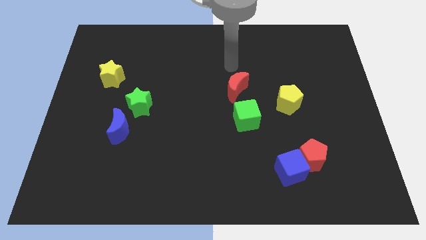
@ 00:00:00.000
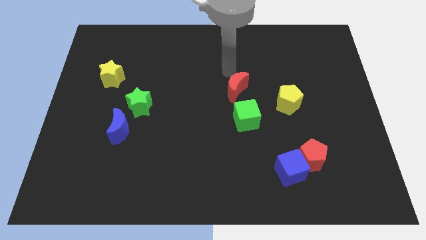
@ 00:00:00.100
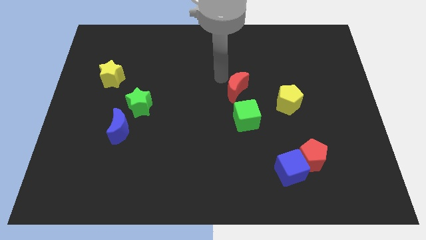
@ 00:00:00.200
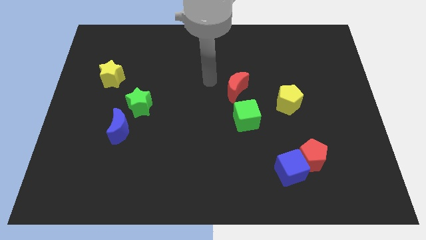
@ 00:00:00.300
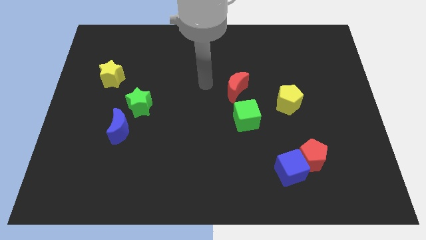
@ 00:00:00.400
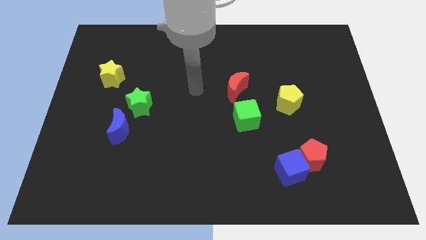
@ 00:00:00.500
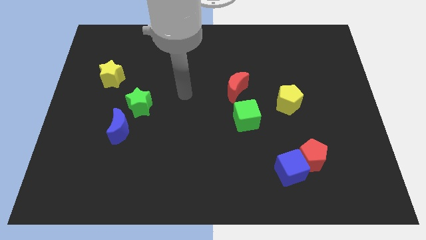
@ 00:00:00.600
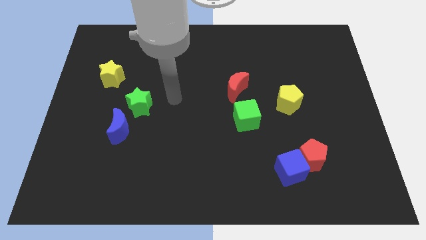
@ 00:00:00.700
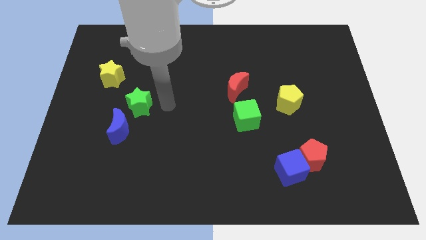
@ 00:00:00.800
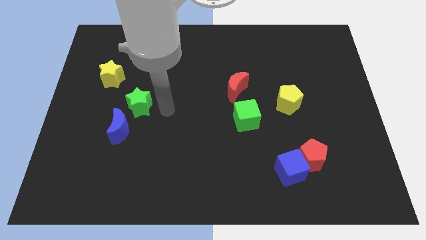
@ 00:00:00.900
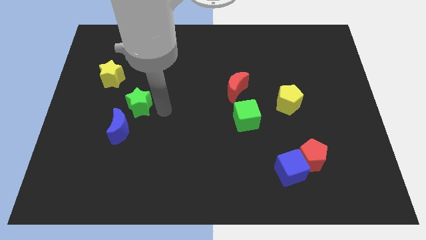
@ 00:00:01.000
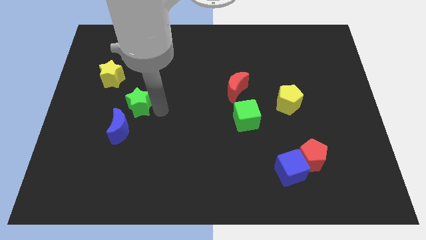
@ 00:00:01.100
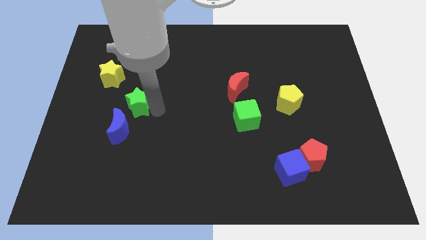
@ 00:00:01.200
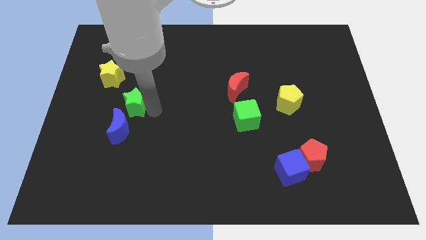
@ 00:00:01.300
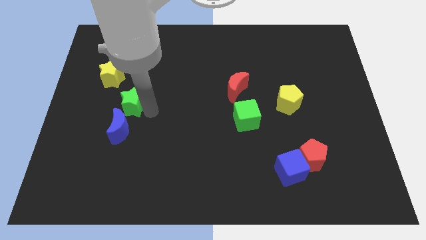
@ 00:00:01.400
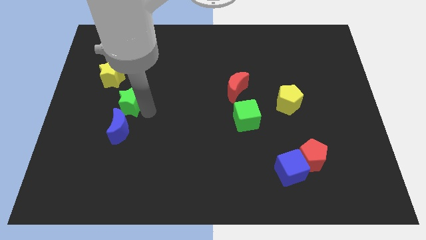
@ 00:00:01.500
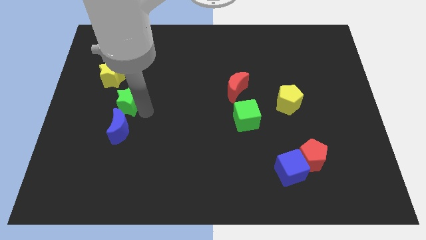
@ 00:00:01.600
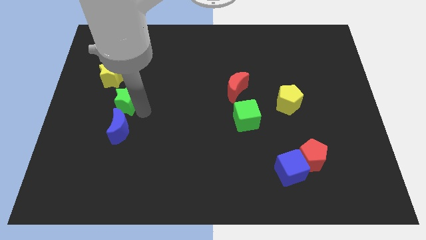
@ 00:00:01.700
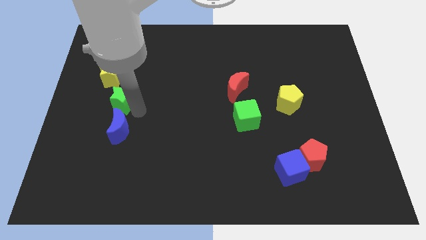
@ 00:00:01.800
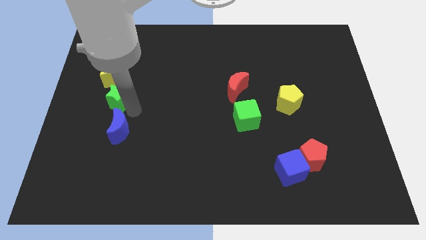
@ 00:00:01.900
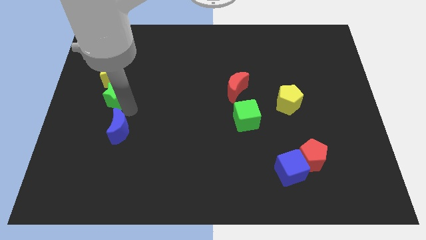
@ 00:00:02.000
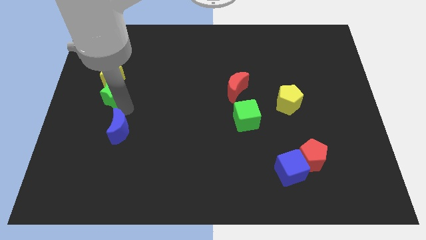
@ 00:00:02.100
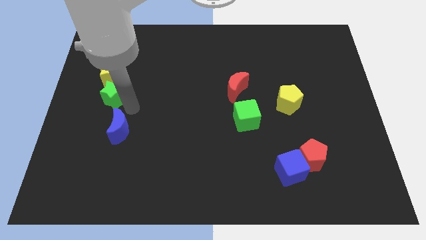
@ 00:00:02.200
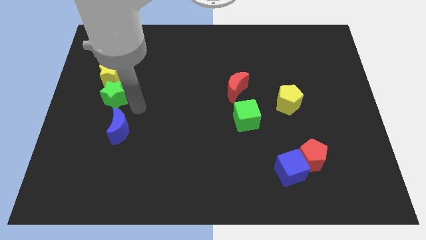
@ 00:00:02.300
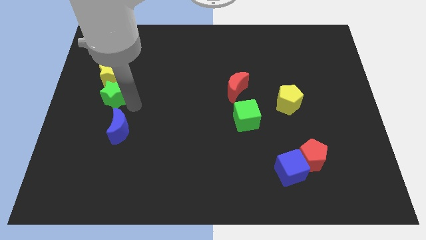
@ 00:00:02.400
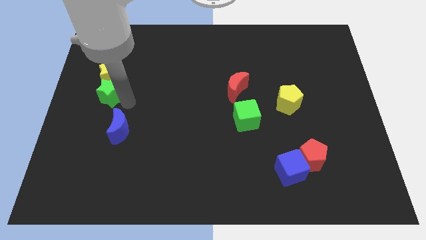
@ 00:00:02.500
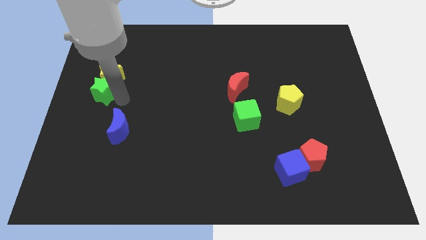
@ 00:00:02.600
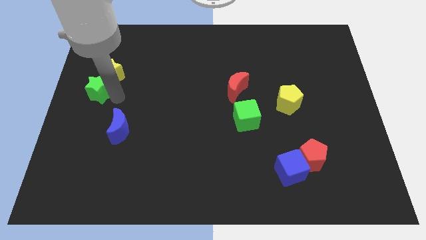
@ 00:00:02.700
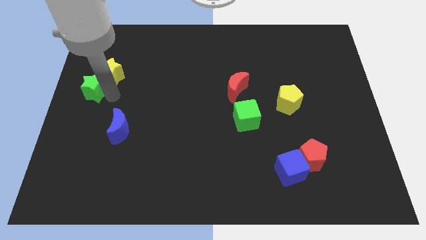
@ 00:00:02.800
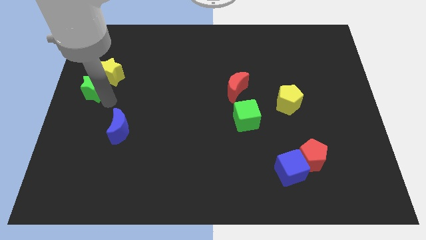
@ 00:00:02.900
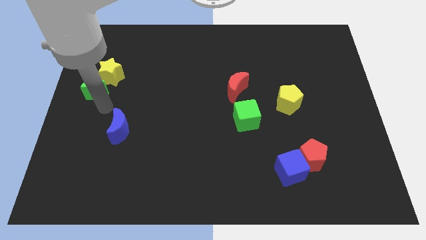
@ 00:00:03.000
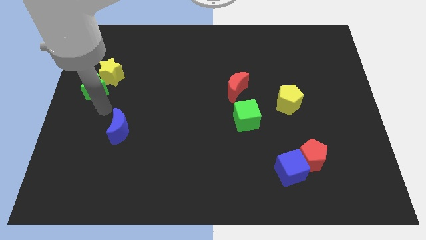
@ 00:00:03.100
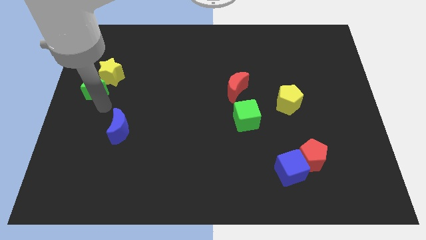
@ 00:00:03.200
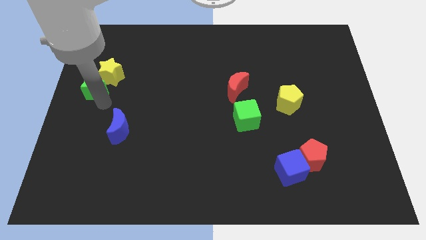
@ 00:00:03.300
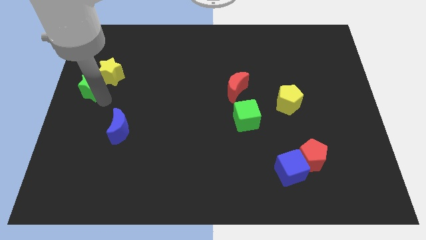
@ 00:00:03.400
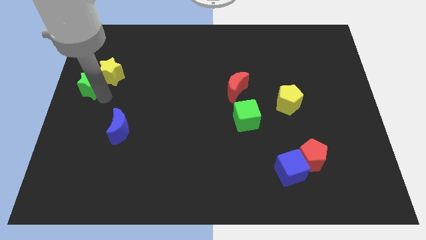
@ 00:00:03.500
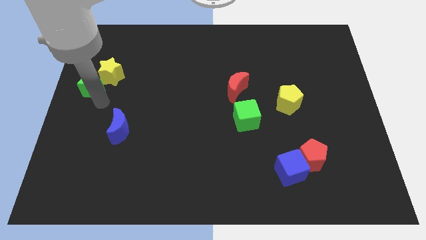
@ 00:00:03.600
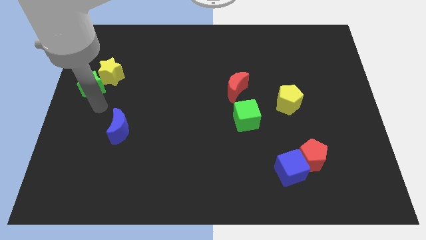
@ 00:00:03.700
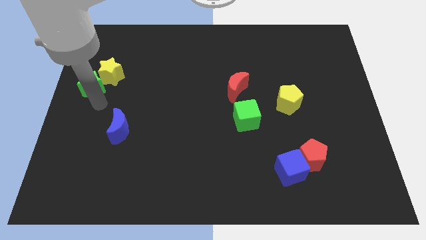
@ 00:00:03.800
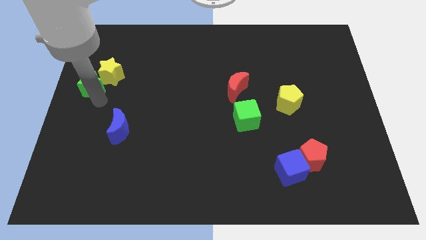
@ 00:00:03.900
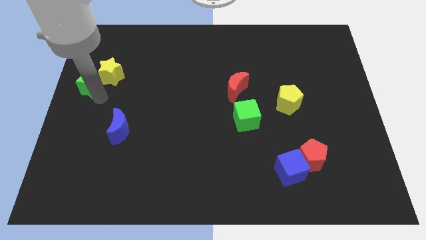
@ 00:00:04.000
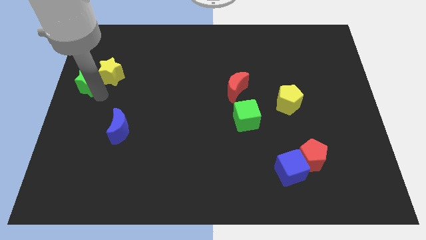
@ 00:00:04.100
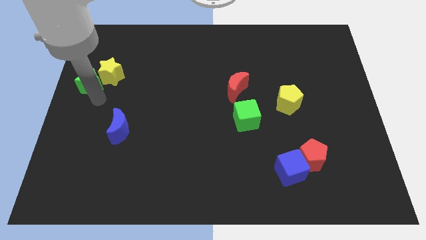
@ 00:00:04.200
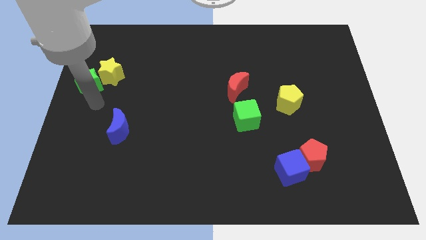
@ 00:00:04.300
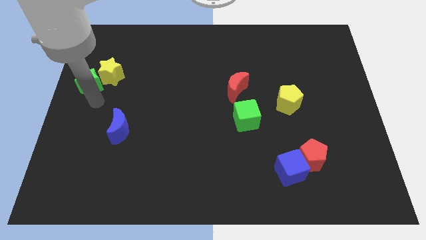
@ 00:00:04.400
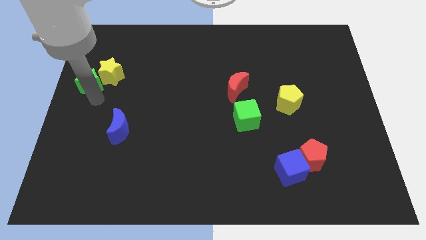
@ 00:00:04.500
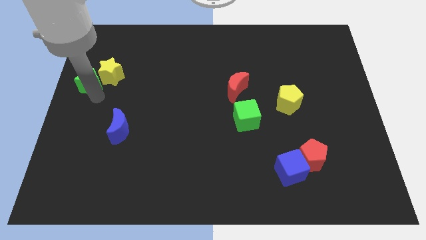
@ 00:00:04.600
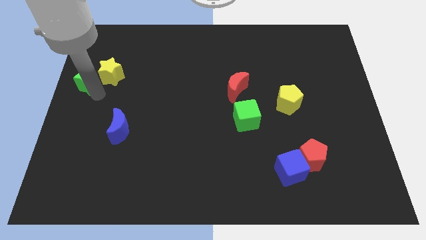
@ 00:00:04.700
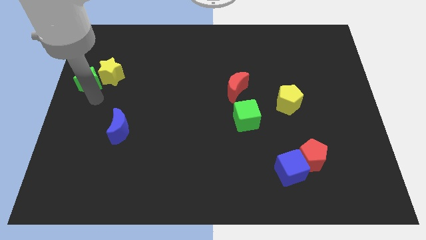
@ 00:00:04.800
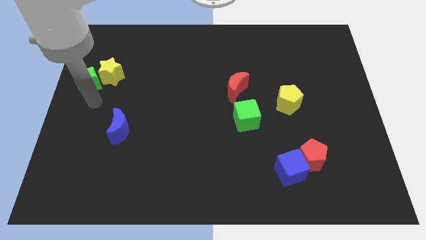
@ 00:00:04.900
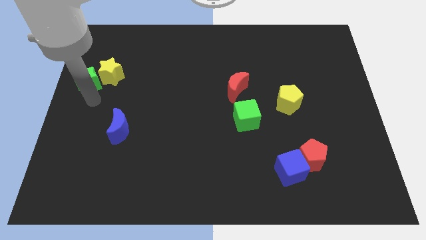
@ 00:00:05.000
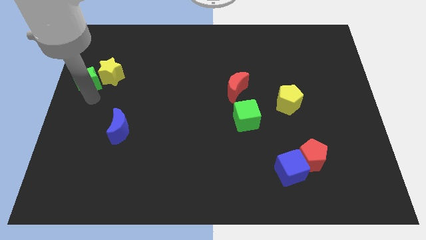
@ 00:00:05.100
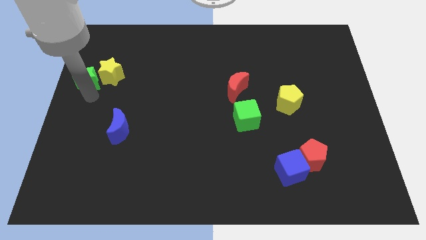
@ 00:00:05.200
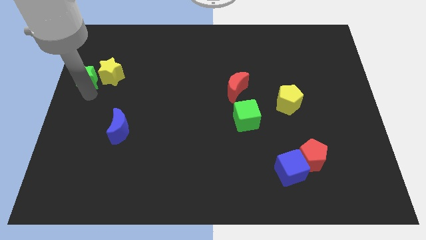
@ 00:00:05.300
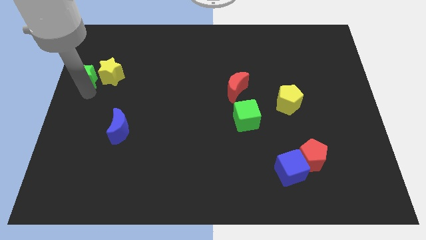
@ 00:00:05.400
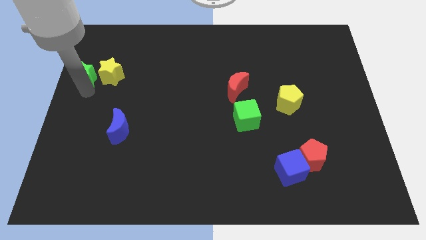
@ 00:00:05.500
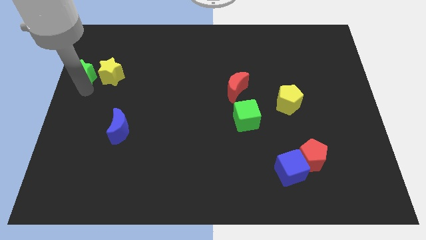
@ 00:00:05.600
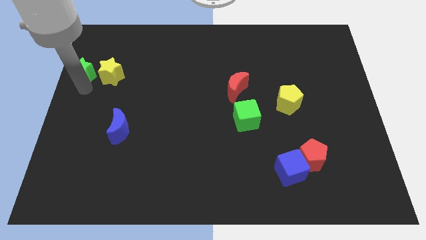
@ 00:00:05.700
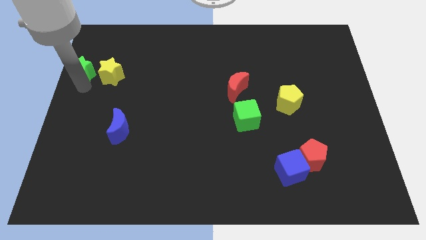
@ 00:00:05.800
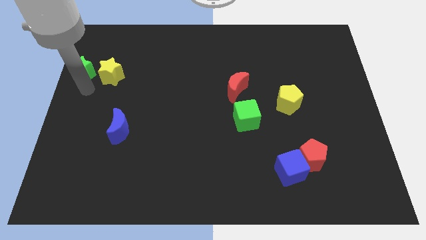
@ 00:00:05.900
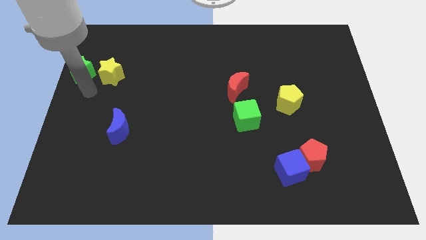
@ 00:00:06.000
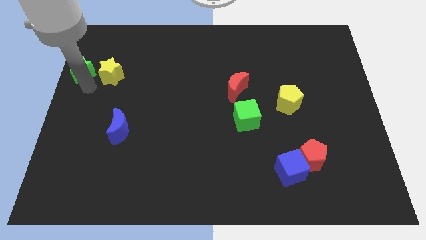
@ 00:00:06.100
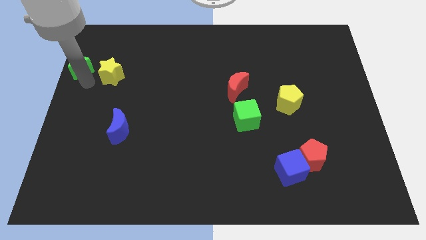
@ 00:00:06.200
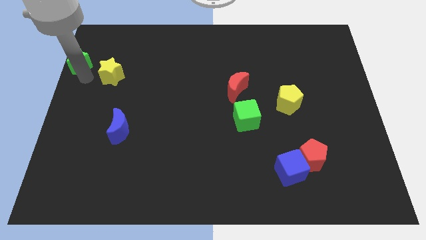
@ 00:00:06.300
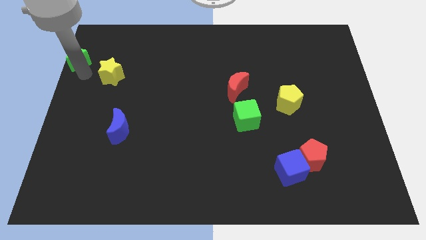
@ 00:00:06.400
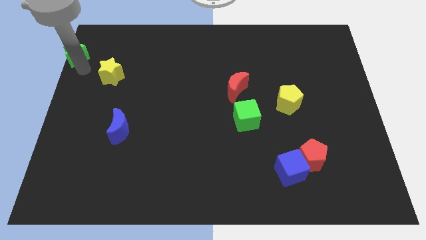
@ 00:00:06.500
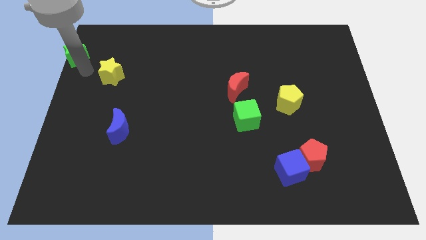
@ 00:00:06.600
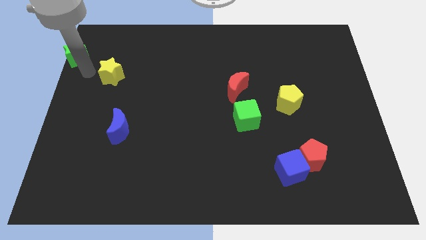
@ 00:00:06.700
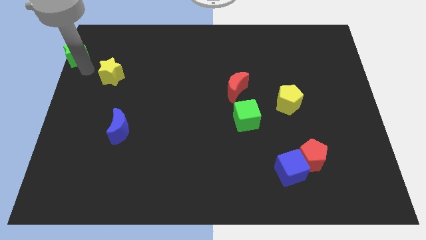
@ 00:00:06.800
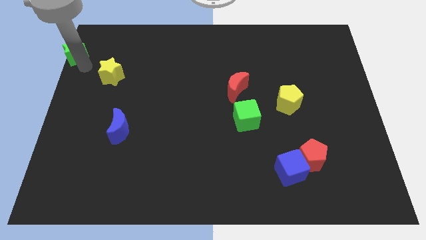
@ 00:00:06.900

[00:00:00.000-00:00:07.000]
slide the green star to the top left of the board

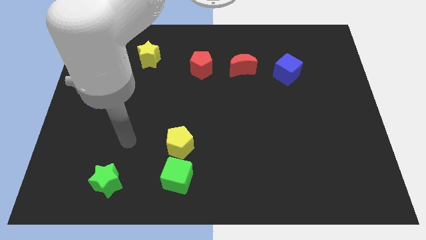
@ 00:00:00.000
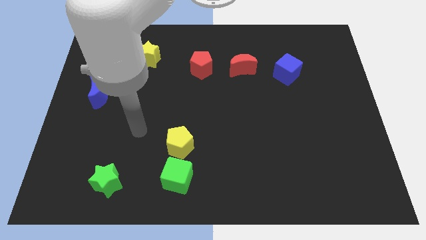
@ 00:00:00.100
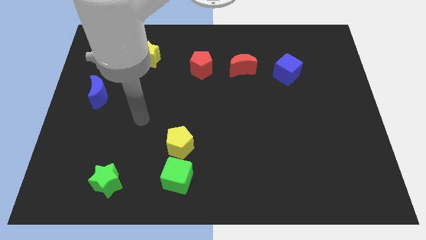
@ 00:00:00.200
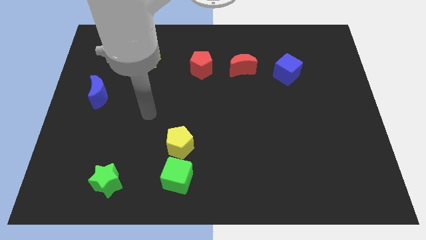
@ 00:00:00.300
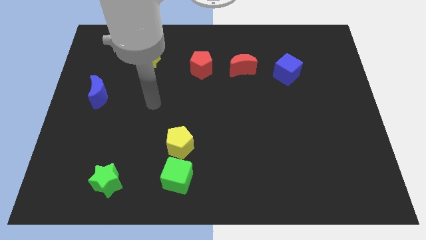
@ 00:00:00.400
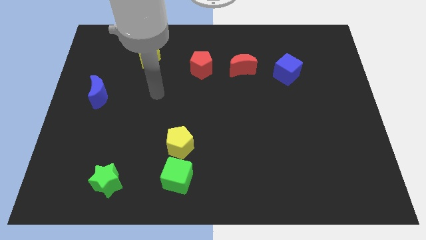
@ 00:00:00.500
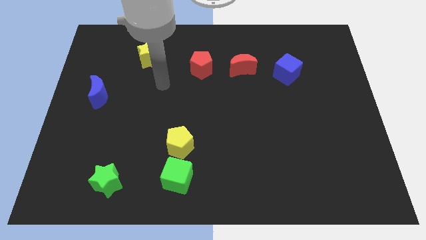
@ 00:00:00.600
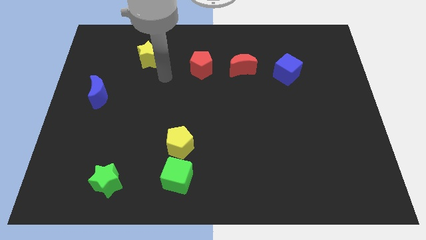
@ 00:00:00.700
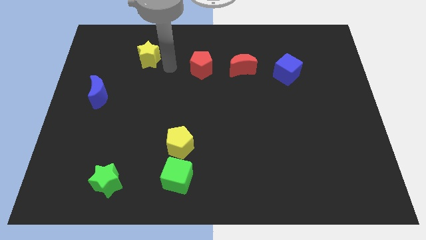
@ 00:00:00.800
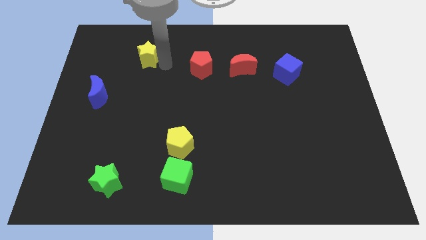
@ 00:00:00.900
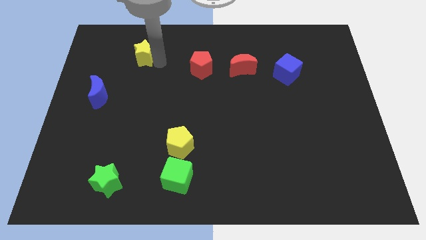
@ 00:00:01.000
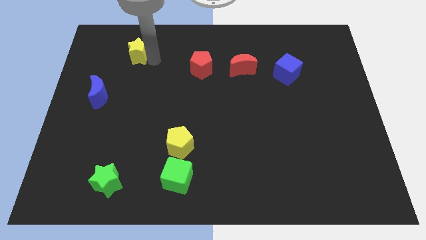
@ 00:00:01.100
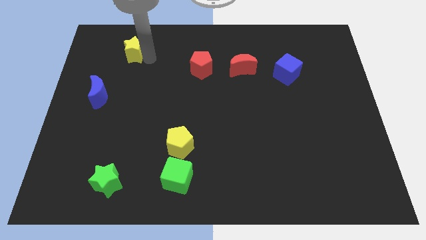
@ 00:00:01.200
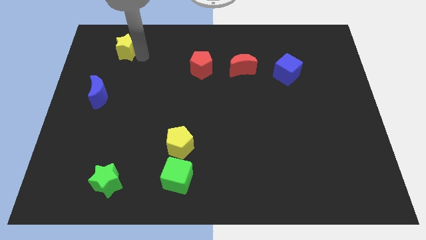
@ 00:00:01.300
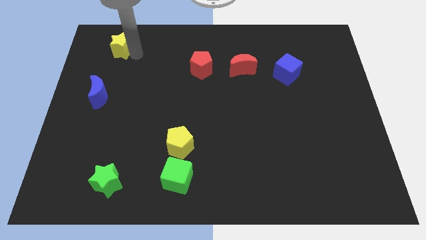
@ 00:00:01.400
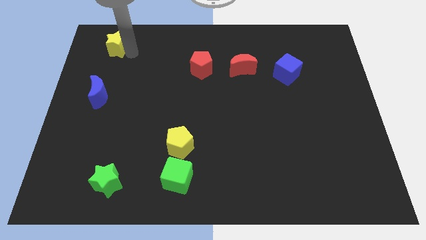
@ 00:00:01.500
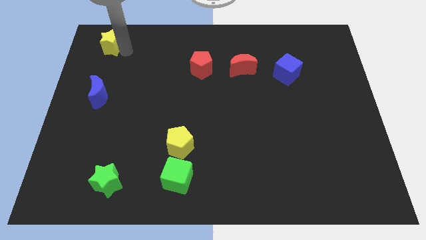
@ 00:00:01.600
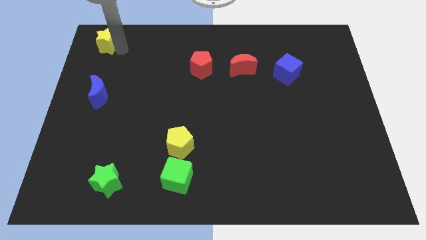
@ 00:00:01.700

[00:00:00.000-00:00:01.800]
put the yellow star to the upper left corner
